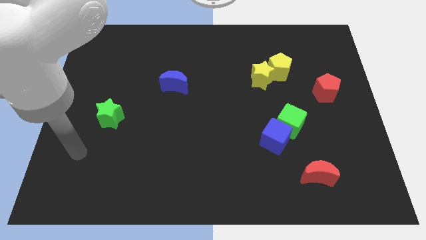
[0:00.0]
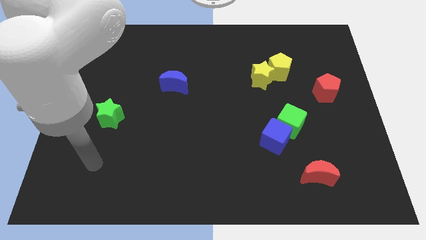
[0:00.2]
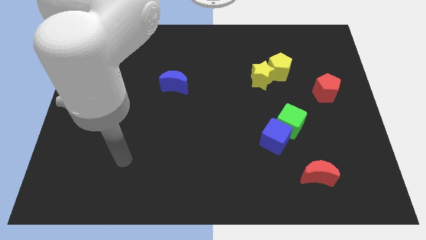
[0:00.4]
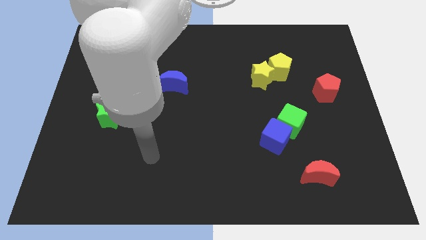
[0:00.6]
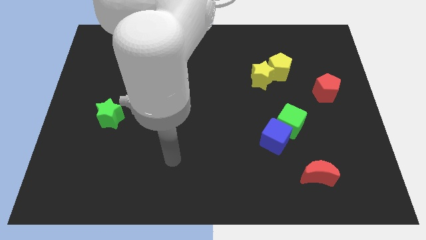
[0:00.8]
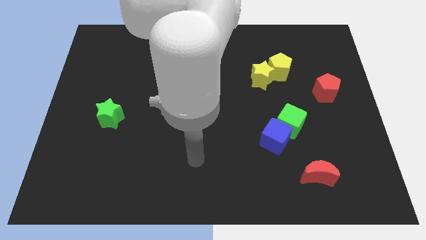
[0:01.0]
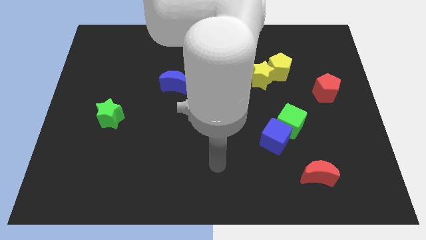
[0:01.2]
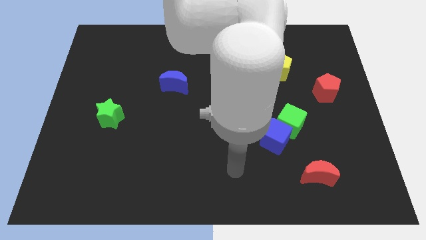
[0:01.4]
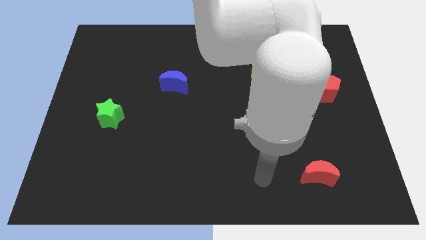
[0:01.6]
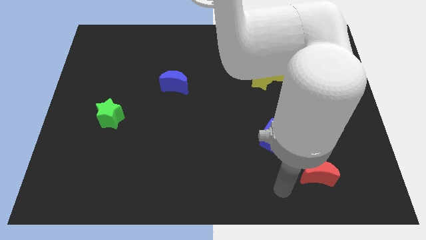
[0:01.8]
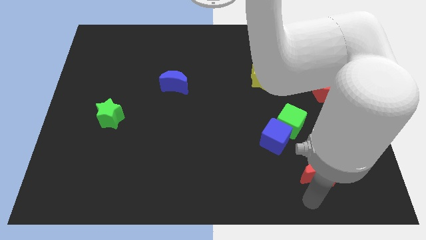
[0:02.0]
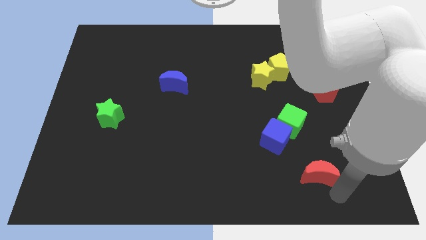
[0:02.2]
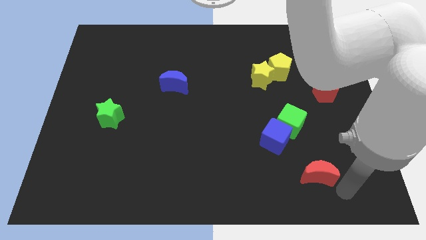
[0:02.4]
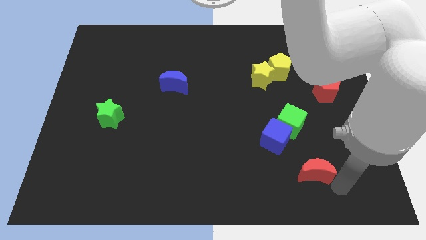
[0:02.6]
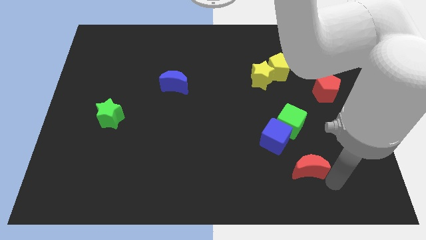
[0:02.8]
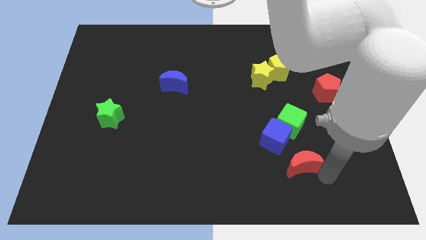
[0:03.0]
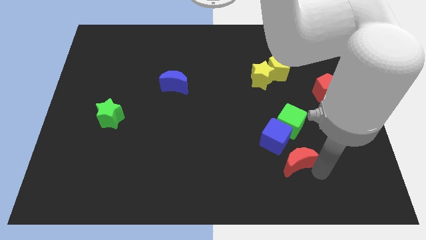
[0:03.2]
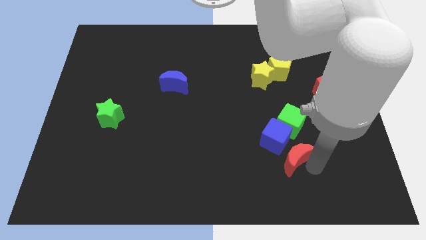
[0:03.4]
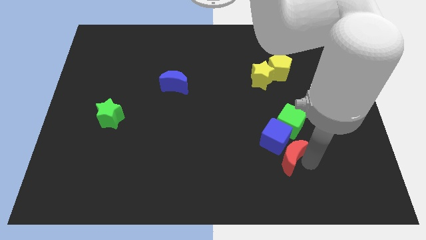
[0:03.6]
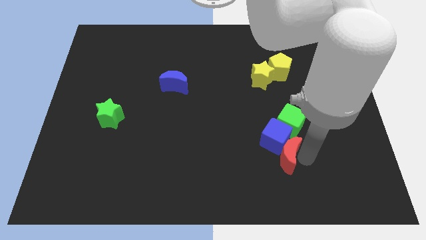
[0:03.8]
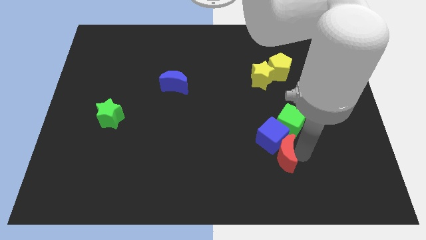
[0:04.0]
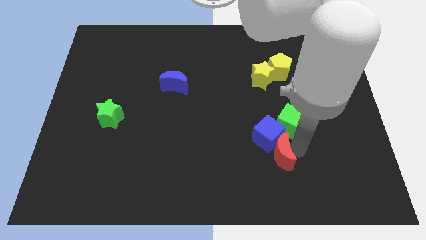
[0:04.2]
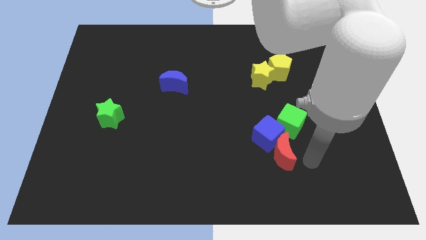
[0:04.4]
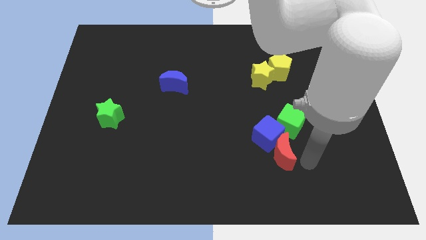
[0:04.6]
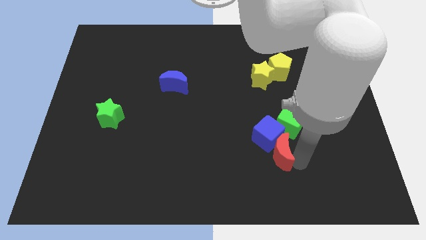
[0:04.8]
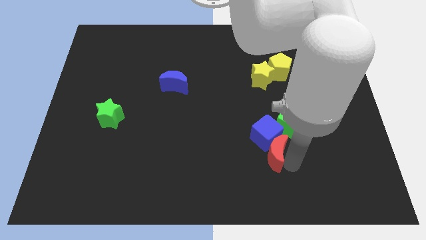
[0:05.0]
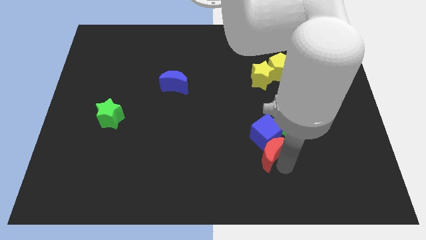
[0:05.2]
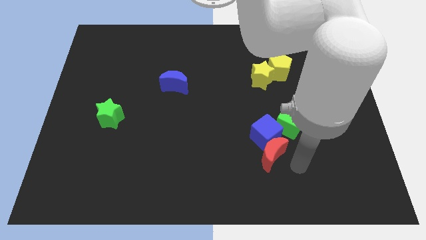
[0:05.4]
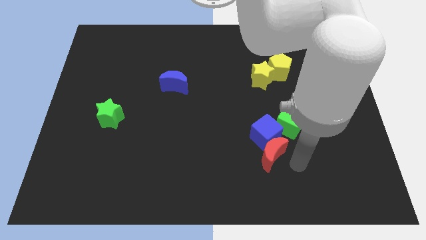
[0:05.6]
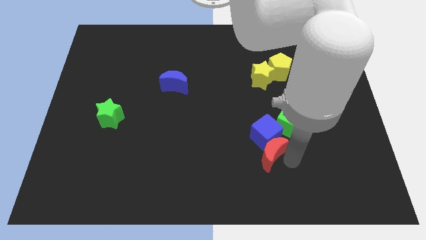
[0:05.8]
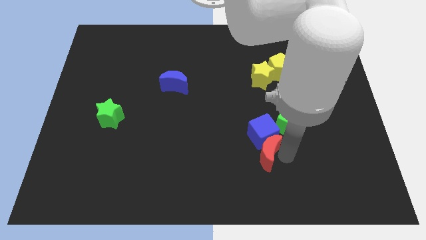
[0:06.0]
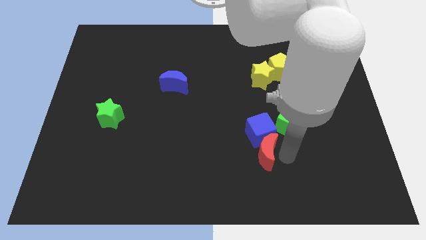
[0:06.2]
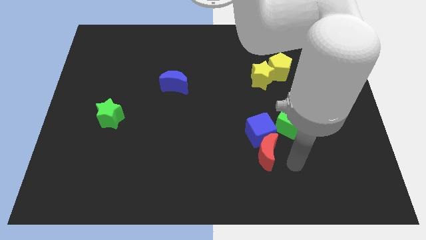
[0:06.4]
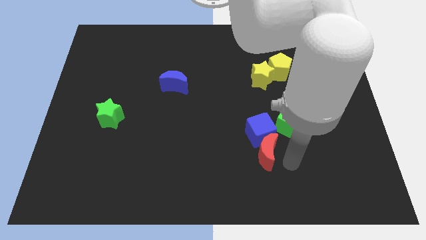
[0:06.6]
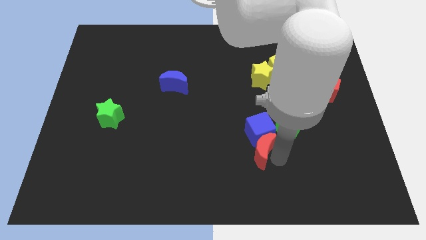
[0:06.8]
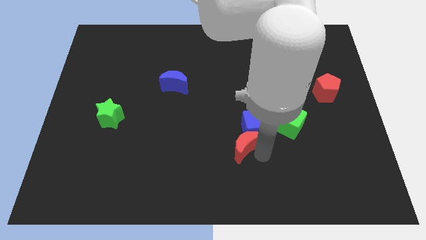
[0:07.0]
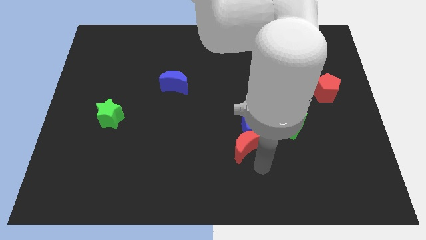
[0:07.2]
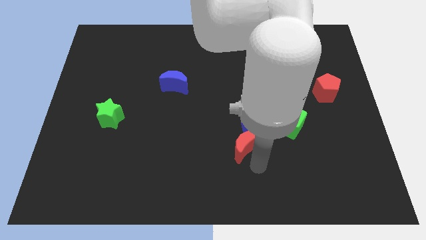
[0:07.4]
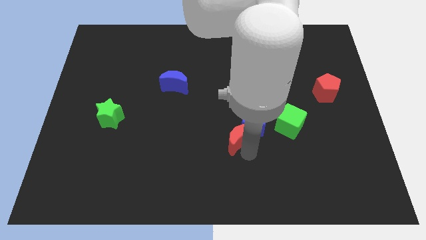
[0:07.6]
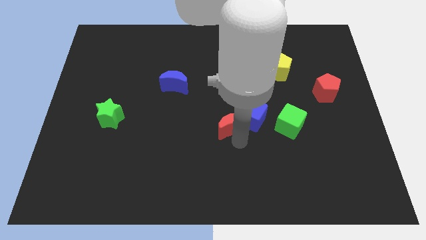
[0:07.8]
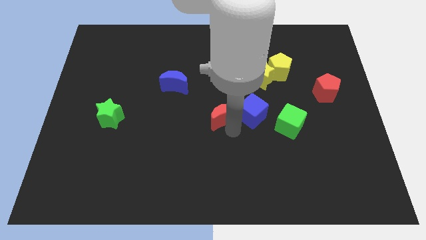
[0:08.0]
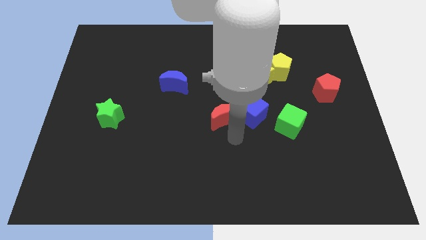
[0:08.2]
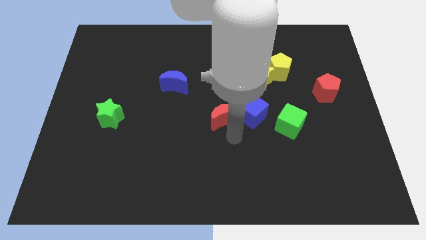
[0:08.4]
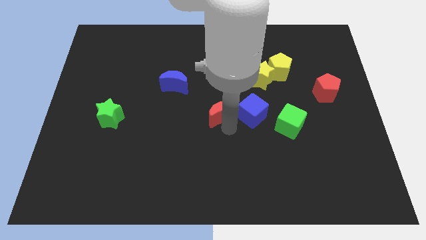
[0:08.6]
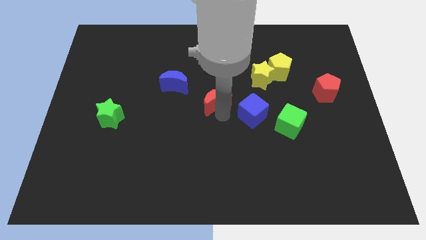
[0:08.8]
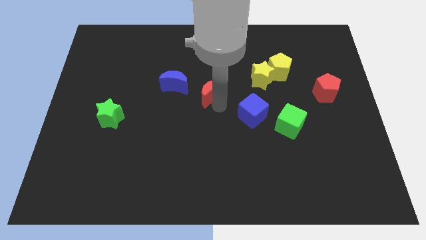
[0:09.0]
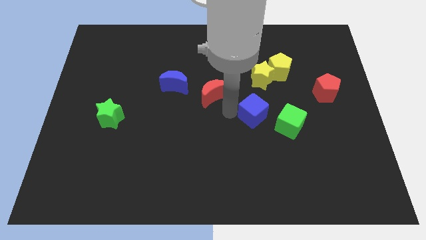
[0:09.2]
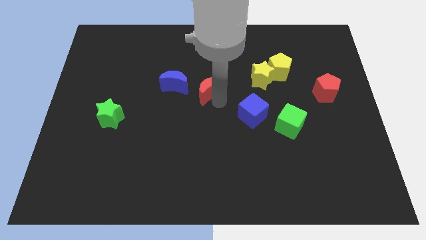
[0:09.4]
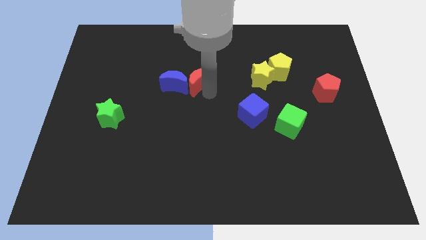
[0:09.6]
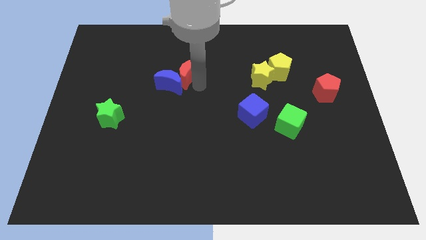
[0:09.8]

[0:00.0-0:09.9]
push the red moon above the blue moon

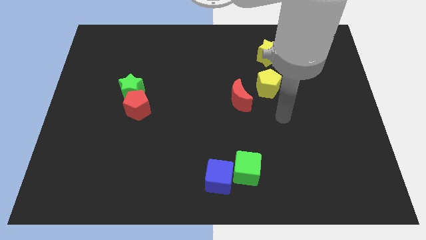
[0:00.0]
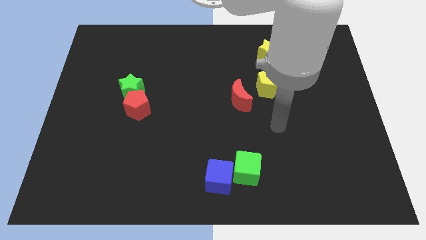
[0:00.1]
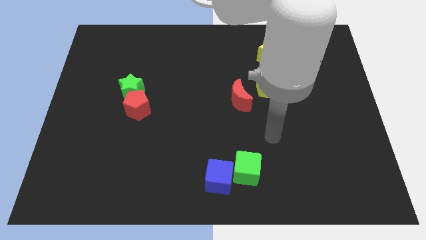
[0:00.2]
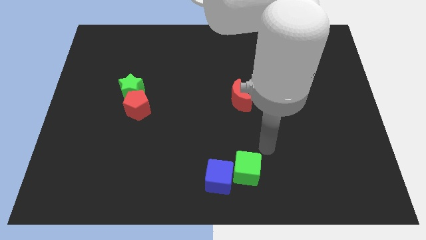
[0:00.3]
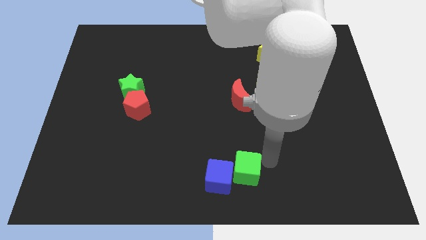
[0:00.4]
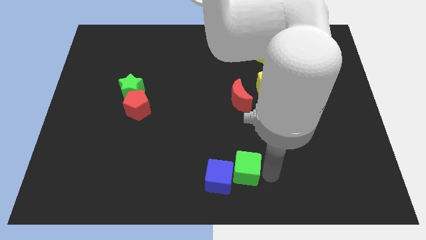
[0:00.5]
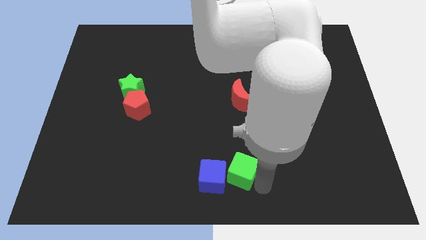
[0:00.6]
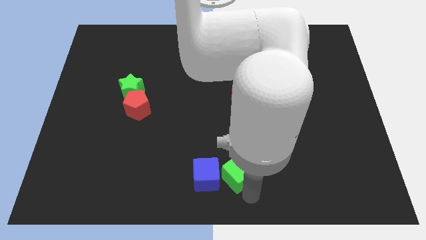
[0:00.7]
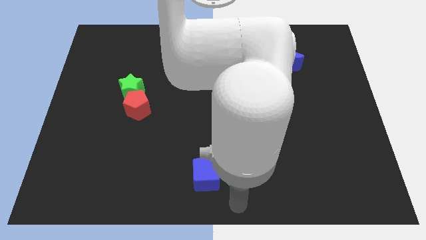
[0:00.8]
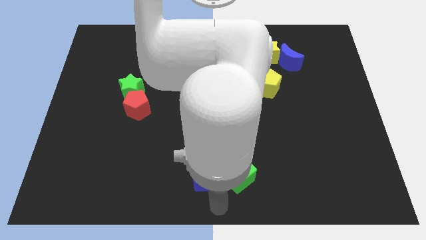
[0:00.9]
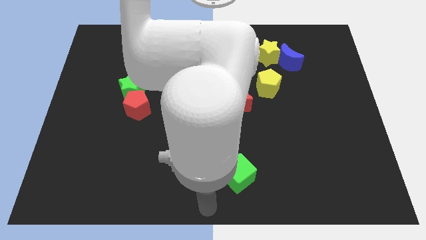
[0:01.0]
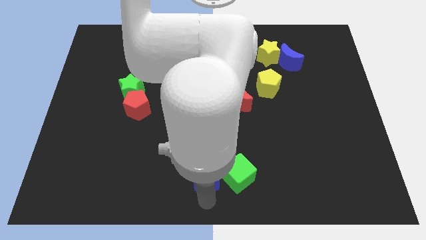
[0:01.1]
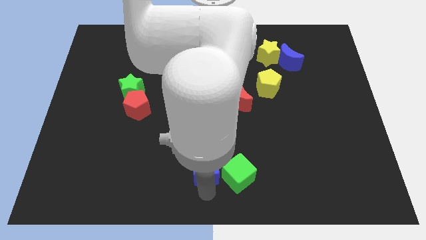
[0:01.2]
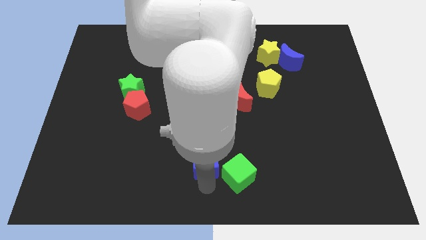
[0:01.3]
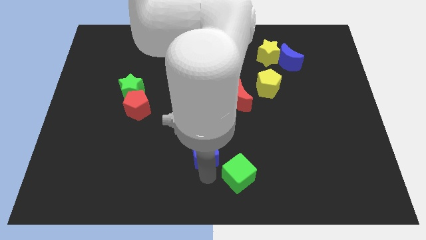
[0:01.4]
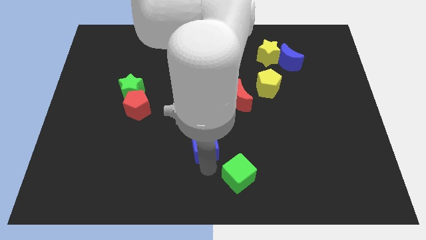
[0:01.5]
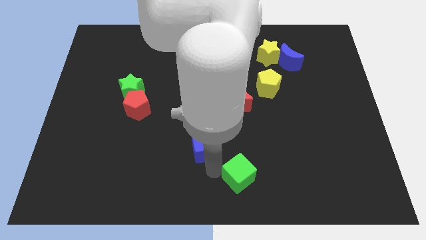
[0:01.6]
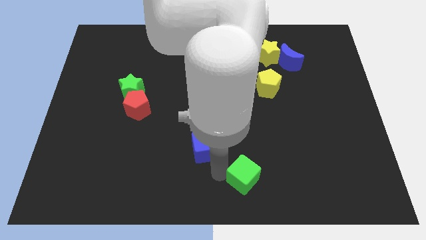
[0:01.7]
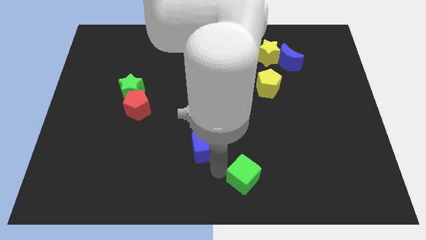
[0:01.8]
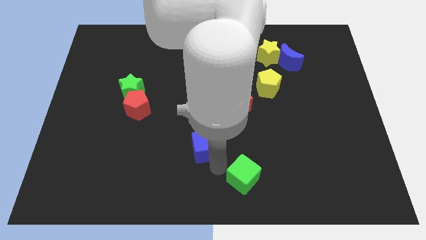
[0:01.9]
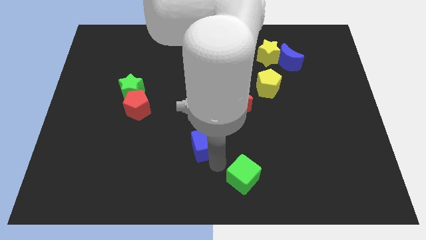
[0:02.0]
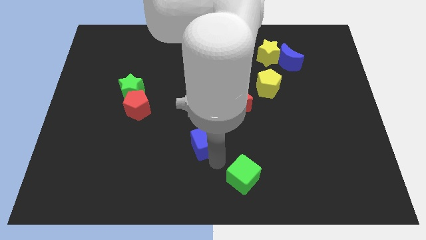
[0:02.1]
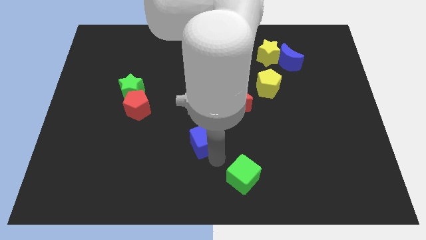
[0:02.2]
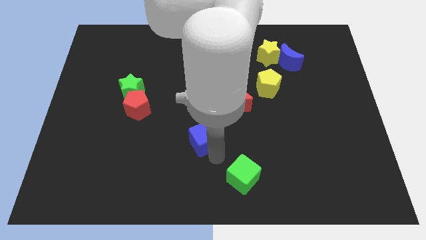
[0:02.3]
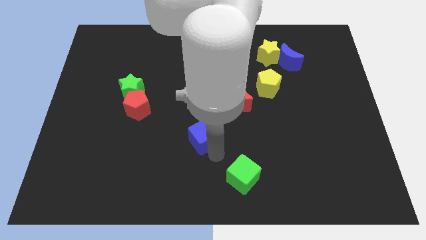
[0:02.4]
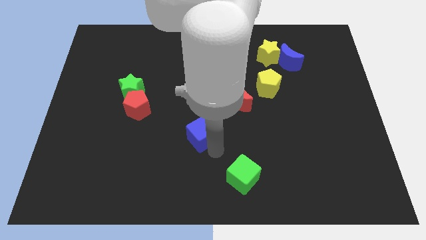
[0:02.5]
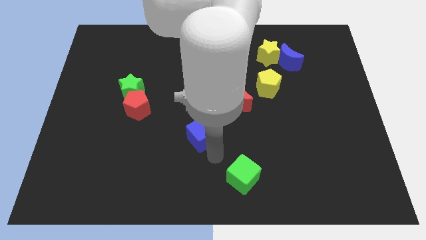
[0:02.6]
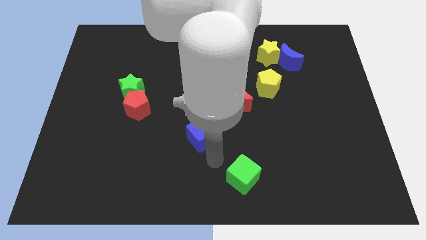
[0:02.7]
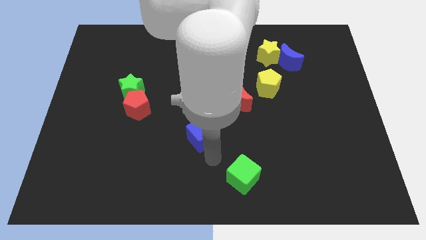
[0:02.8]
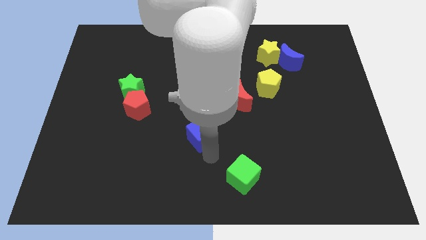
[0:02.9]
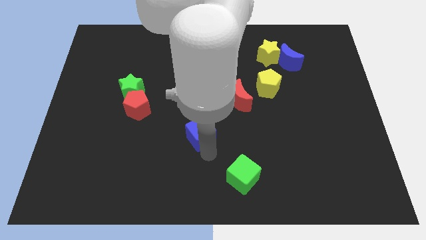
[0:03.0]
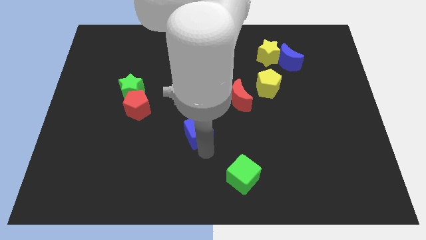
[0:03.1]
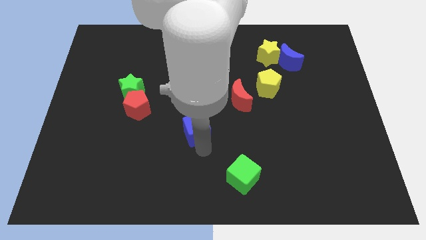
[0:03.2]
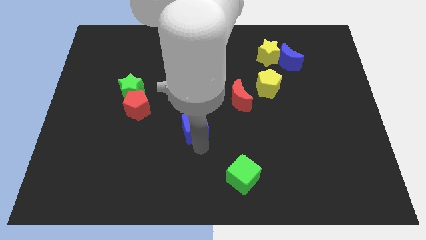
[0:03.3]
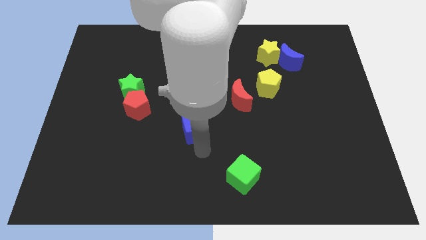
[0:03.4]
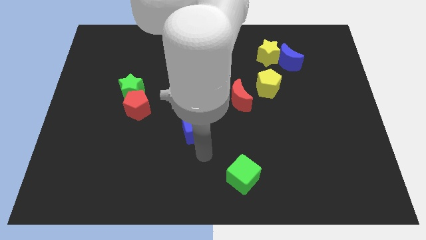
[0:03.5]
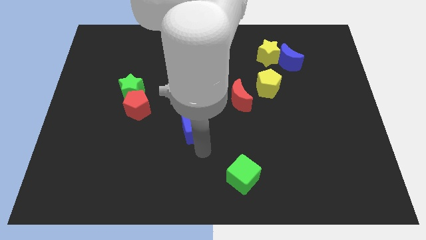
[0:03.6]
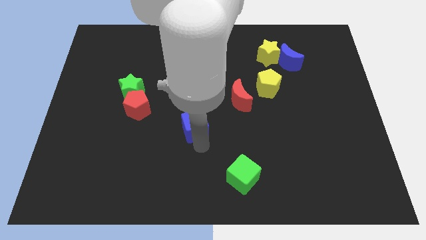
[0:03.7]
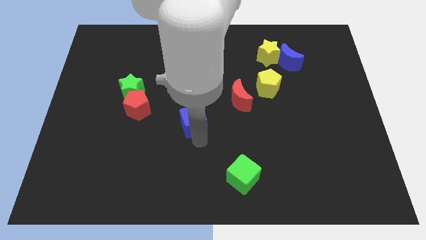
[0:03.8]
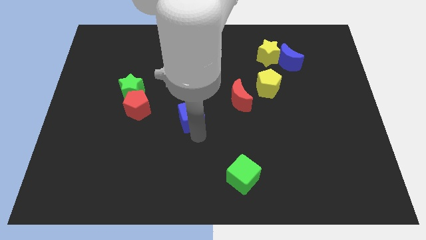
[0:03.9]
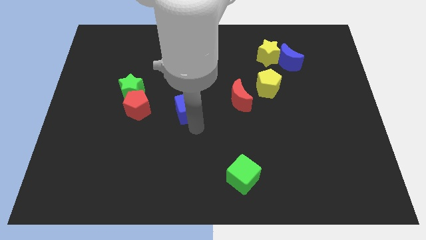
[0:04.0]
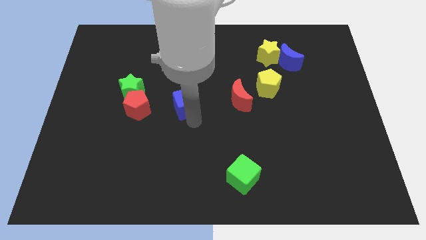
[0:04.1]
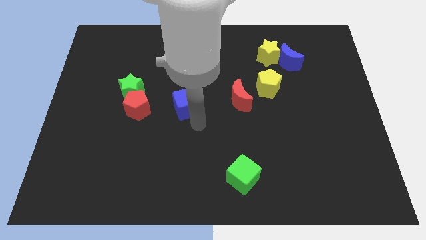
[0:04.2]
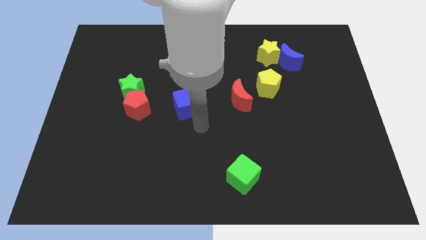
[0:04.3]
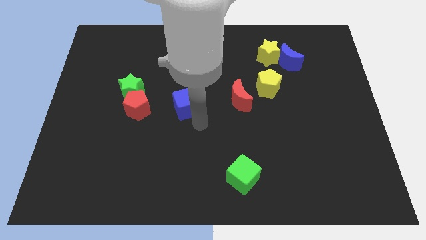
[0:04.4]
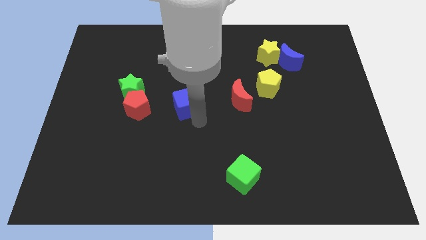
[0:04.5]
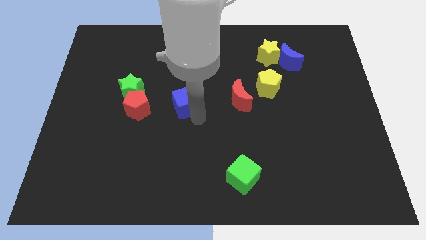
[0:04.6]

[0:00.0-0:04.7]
slide the blue cube to the right side of the green star
